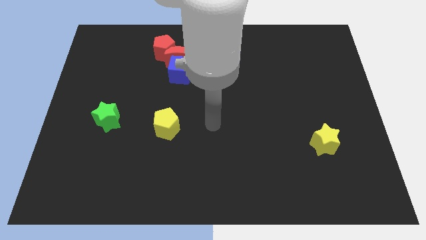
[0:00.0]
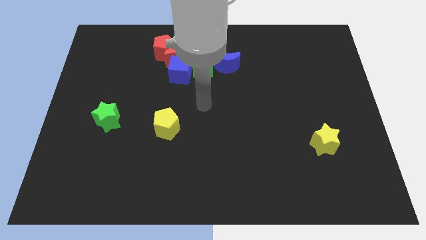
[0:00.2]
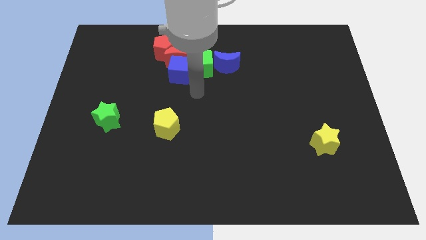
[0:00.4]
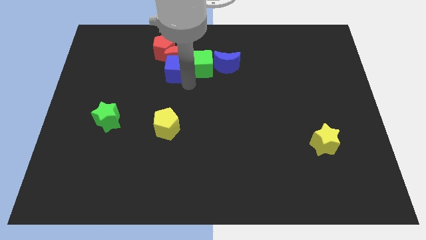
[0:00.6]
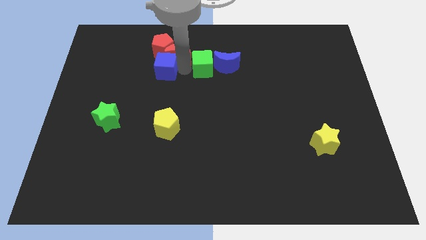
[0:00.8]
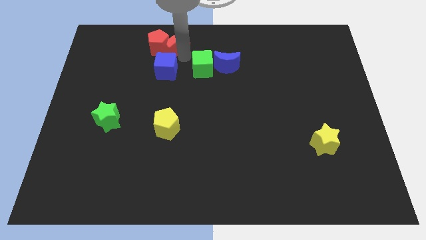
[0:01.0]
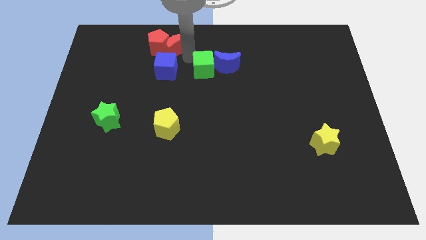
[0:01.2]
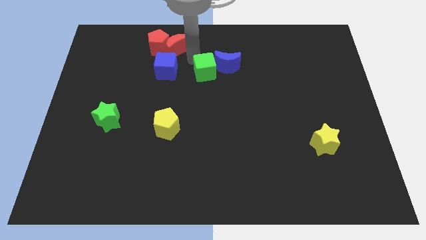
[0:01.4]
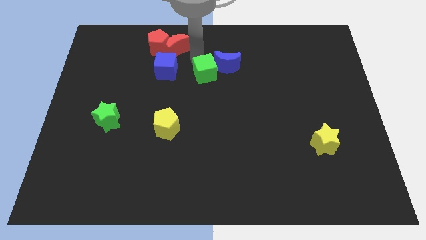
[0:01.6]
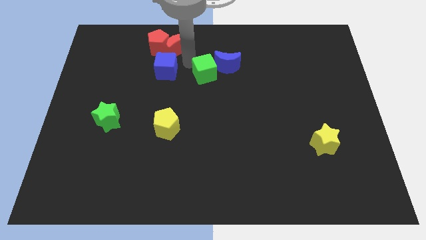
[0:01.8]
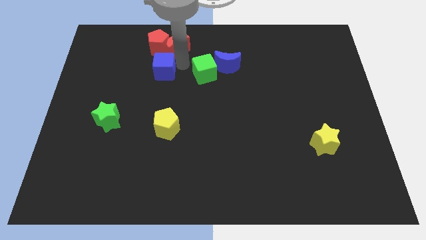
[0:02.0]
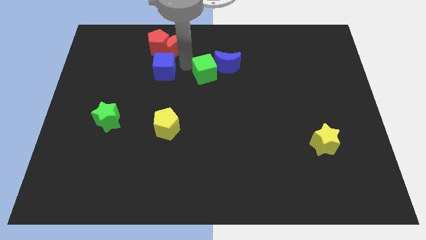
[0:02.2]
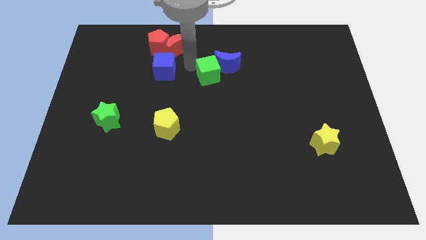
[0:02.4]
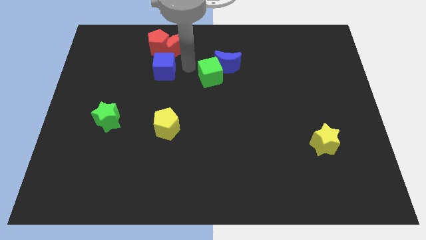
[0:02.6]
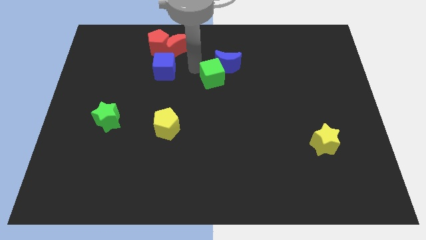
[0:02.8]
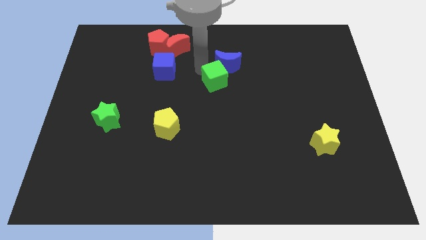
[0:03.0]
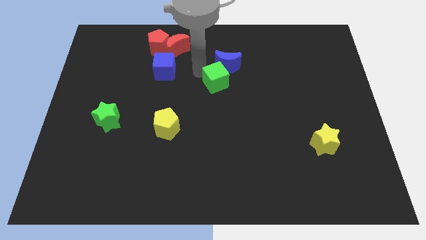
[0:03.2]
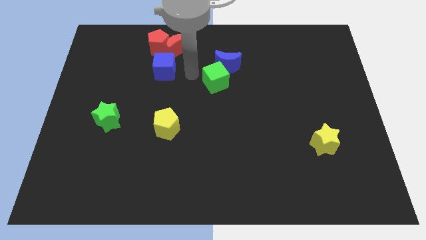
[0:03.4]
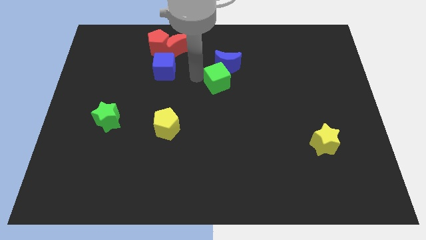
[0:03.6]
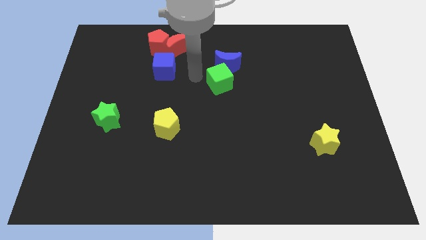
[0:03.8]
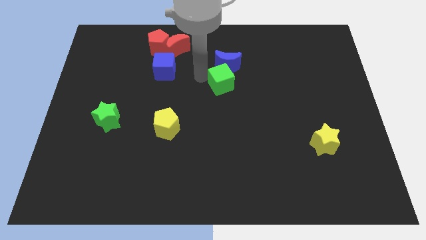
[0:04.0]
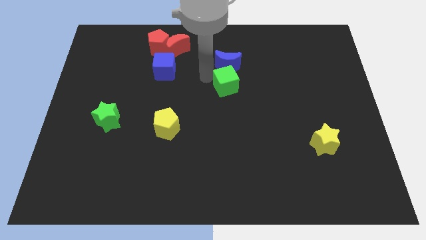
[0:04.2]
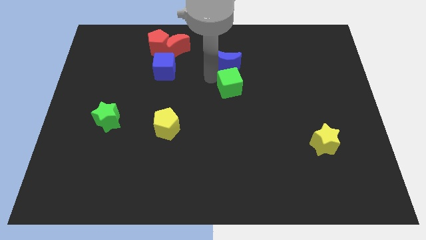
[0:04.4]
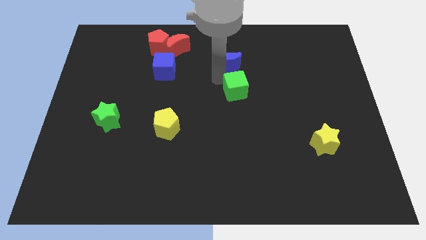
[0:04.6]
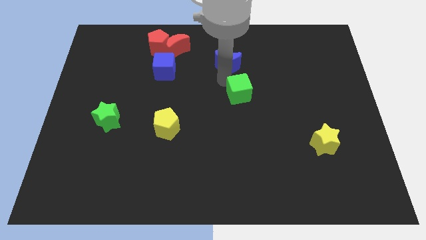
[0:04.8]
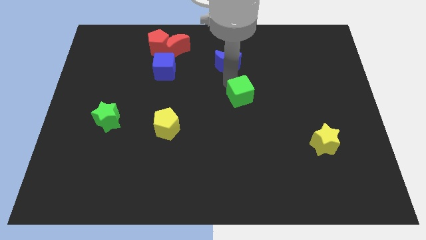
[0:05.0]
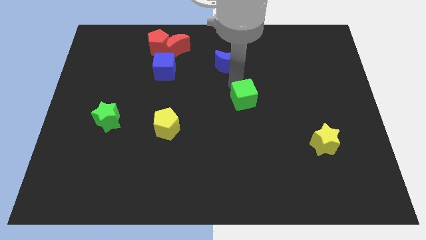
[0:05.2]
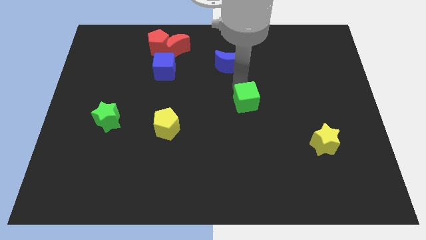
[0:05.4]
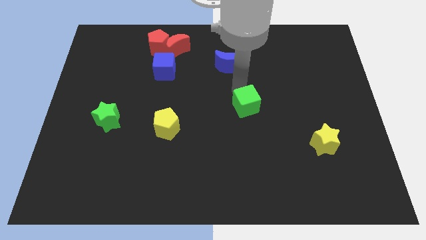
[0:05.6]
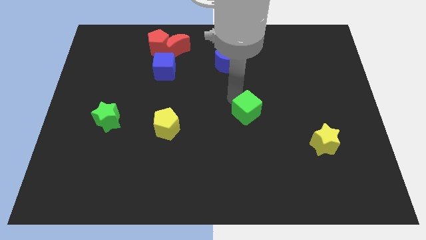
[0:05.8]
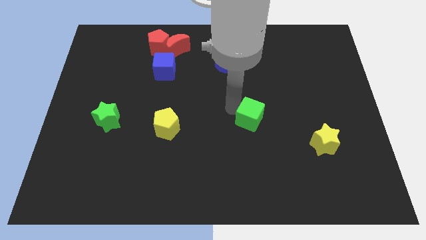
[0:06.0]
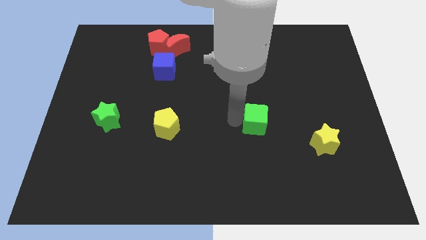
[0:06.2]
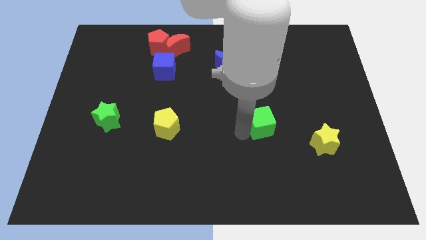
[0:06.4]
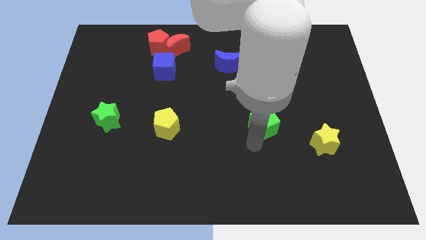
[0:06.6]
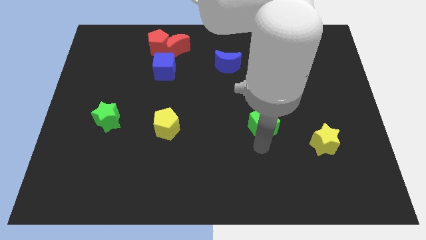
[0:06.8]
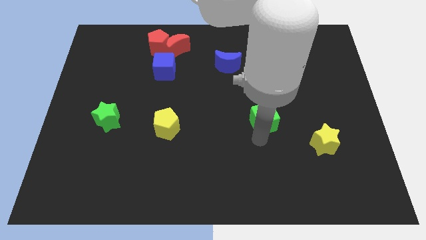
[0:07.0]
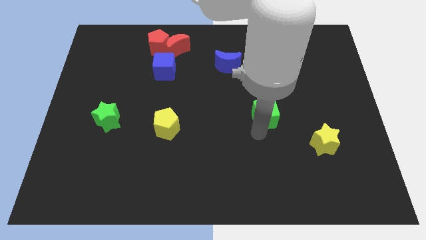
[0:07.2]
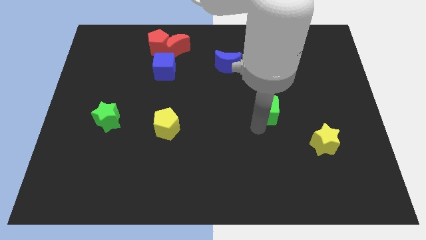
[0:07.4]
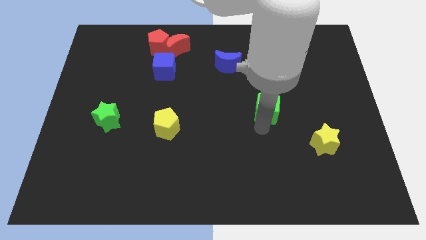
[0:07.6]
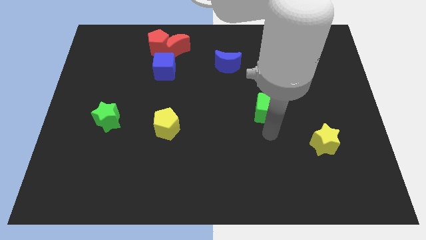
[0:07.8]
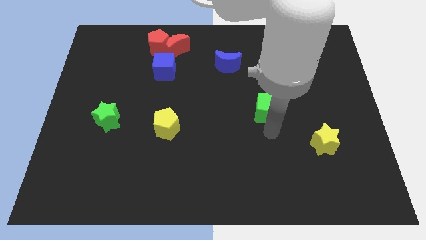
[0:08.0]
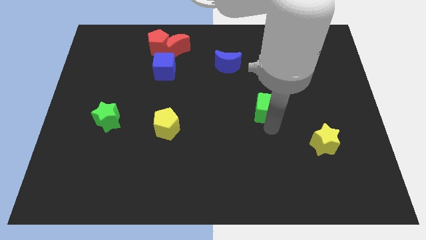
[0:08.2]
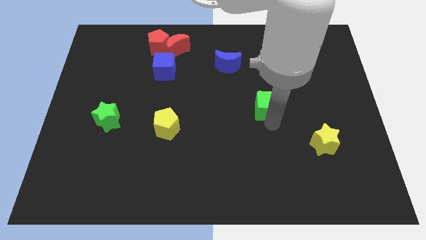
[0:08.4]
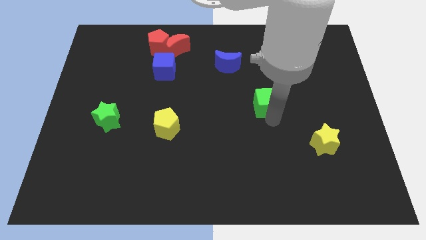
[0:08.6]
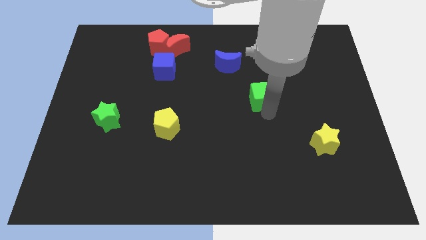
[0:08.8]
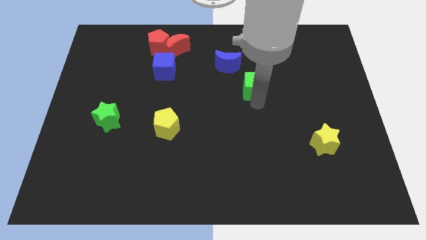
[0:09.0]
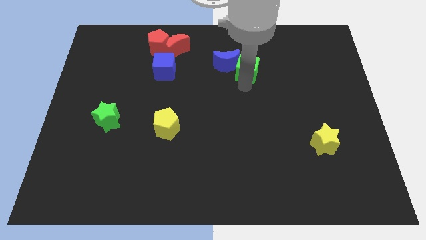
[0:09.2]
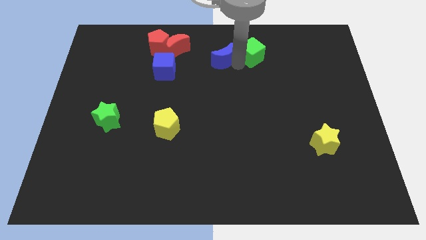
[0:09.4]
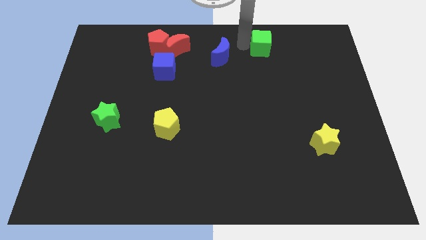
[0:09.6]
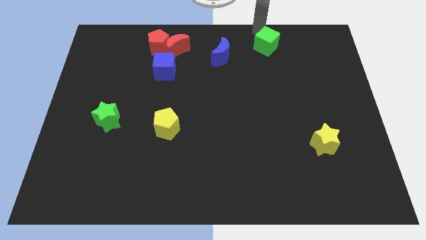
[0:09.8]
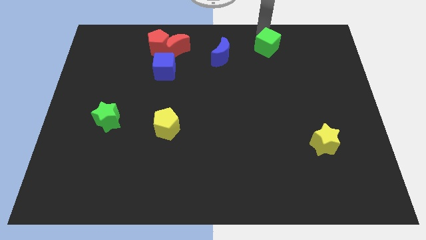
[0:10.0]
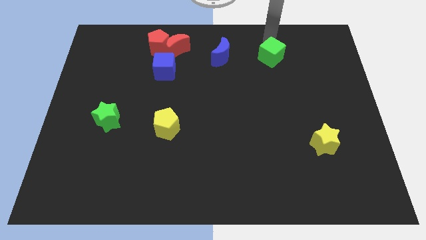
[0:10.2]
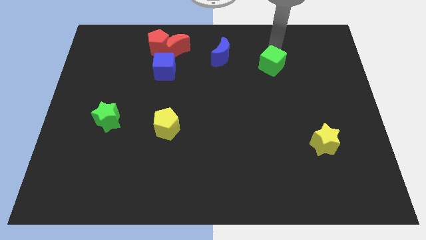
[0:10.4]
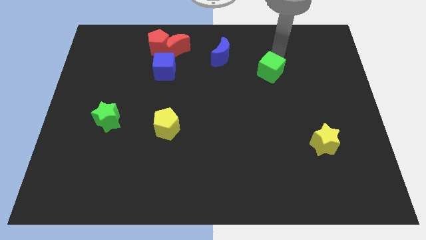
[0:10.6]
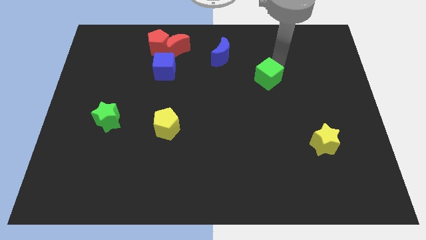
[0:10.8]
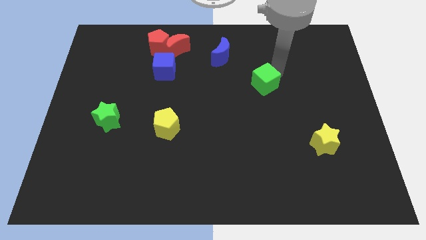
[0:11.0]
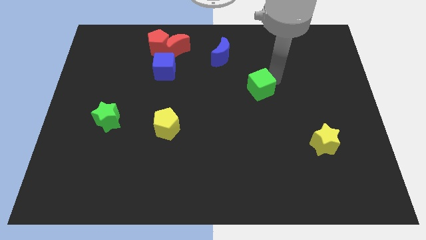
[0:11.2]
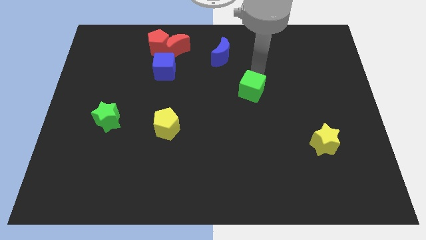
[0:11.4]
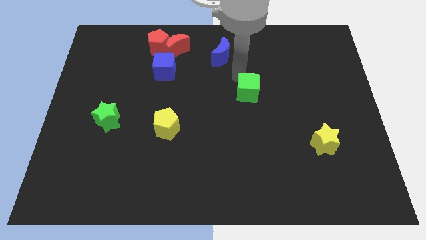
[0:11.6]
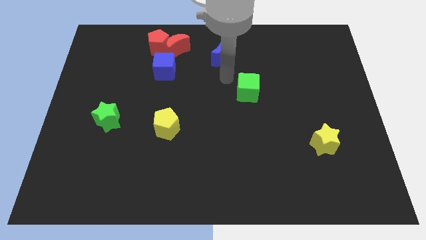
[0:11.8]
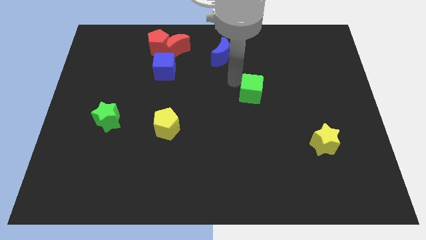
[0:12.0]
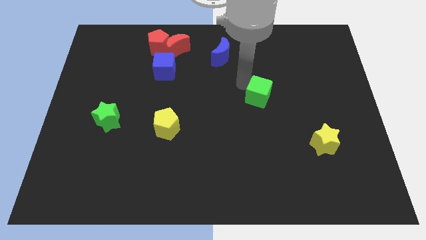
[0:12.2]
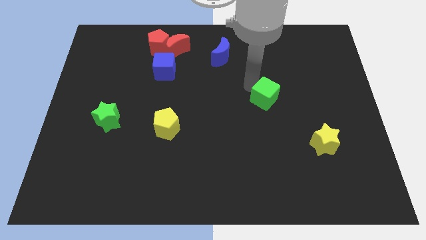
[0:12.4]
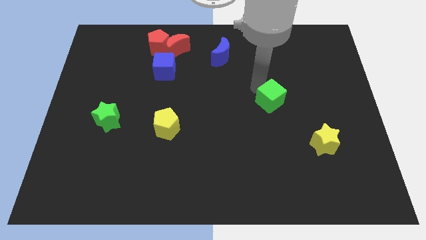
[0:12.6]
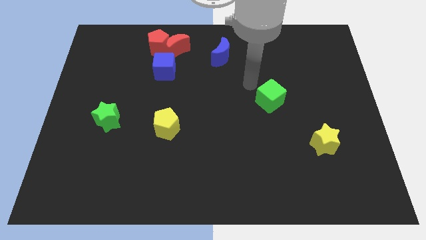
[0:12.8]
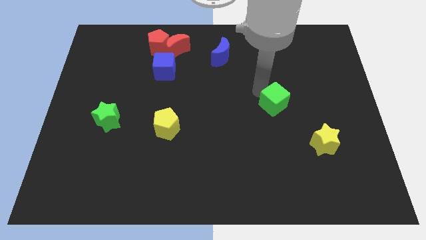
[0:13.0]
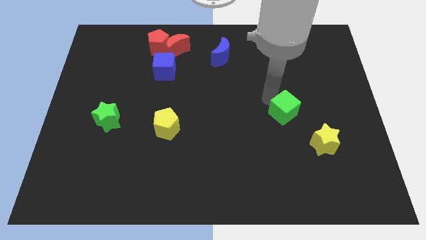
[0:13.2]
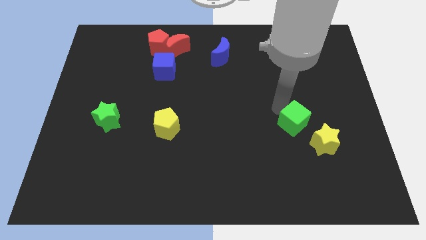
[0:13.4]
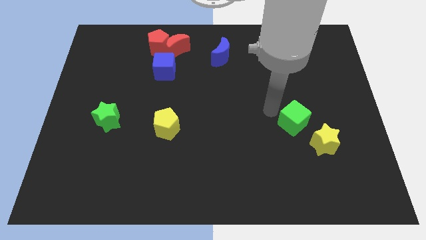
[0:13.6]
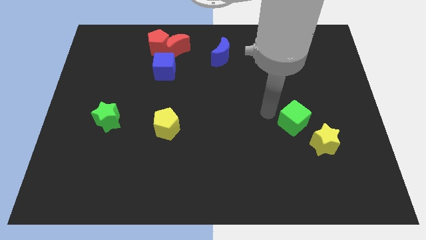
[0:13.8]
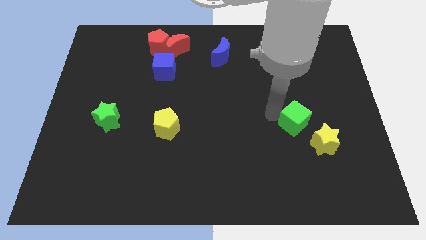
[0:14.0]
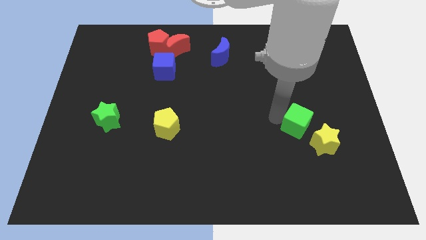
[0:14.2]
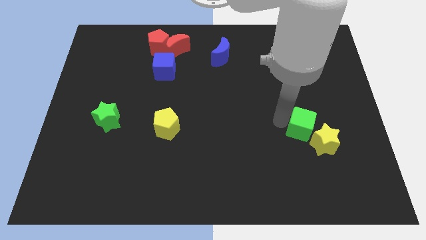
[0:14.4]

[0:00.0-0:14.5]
slide the green cube next to the yellow star
